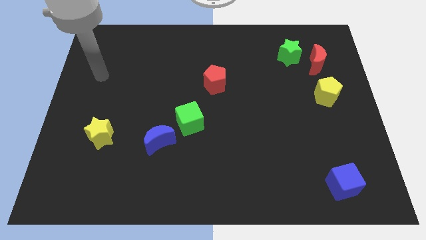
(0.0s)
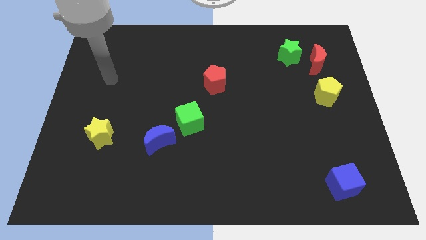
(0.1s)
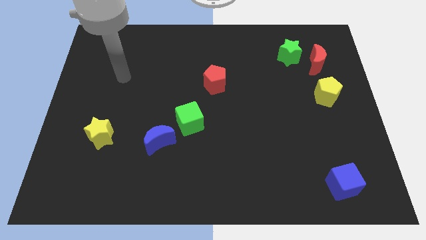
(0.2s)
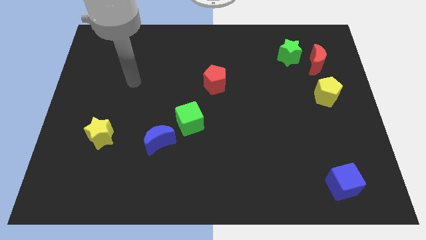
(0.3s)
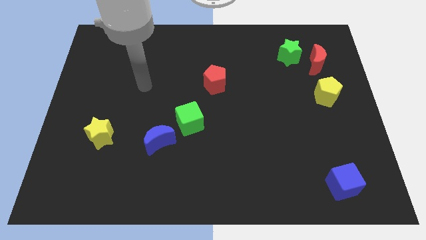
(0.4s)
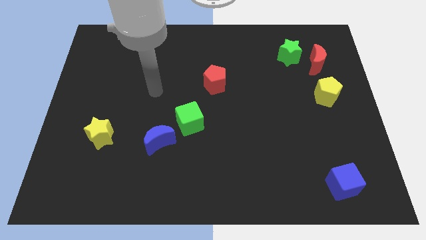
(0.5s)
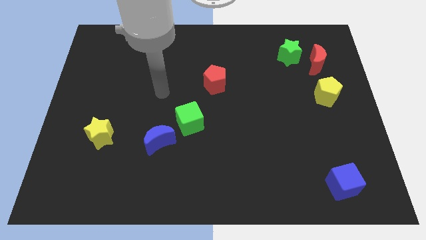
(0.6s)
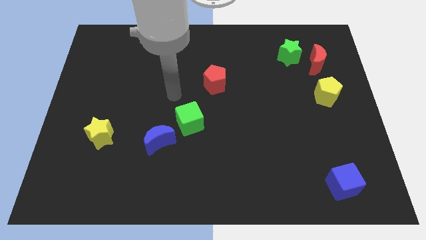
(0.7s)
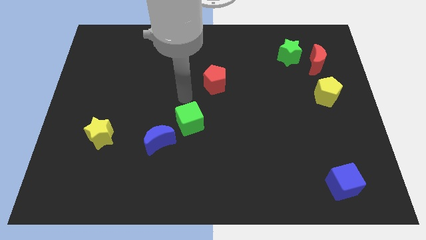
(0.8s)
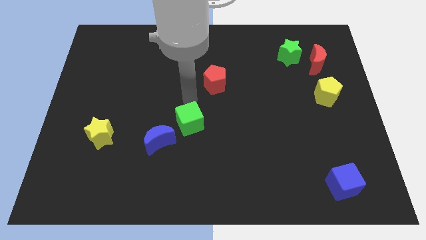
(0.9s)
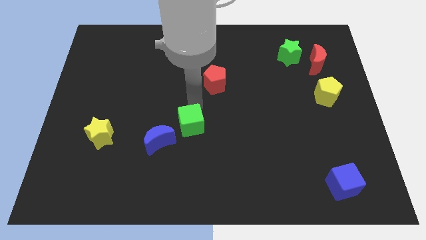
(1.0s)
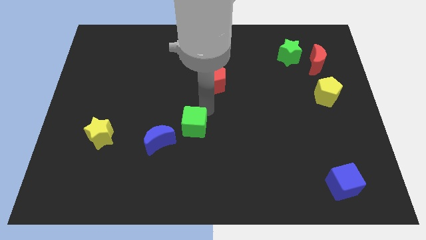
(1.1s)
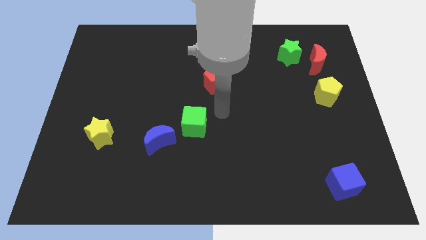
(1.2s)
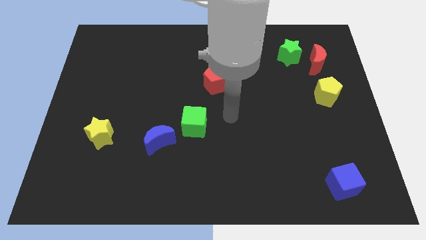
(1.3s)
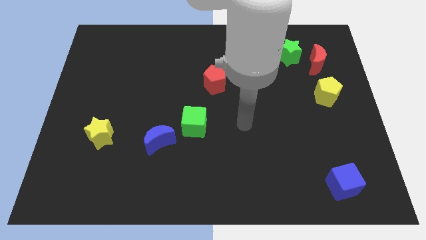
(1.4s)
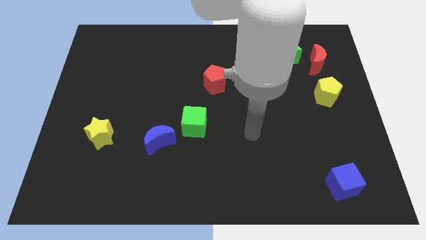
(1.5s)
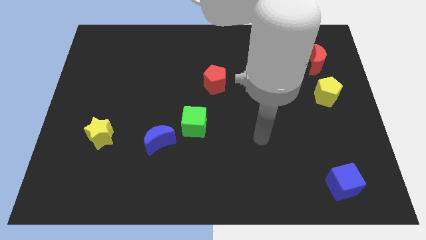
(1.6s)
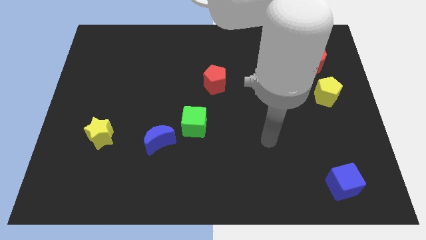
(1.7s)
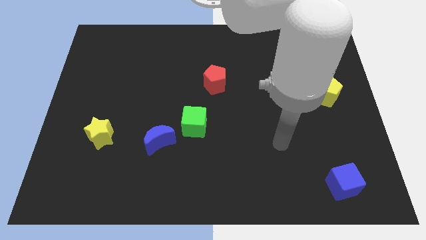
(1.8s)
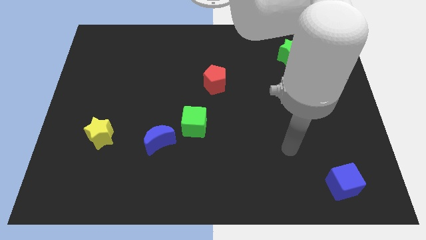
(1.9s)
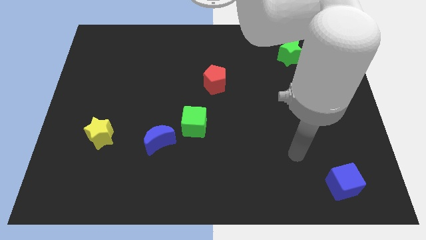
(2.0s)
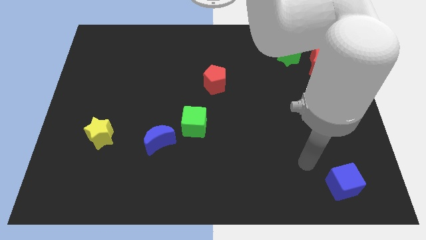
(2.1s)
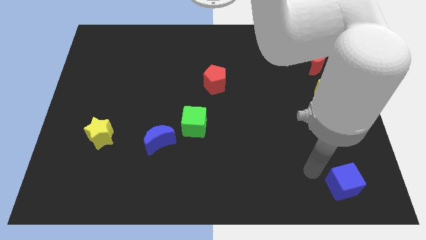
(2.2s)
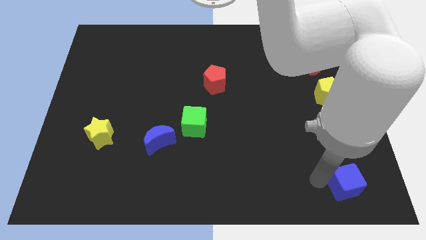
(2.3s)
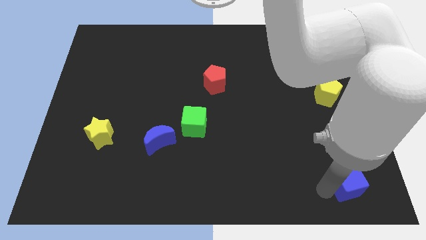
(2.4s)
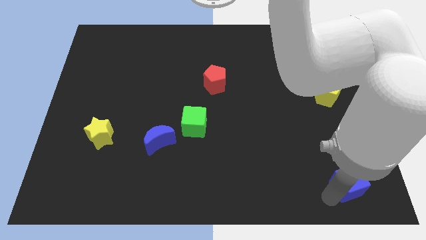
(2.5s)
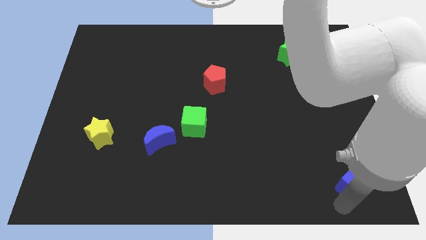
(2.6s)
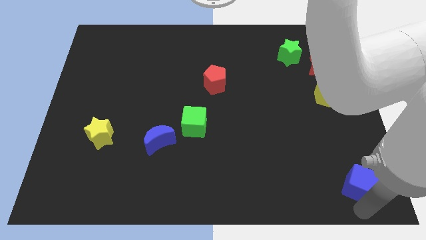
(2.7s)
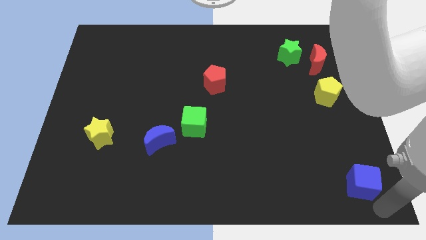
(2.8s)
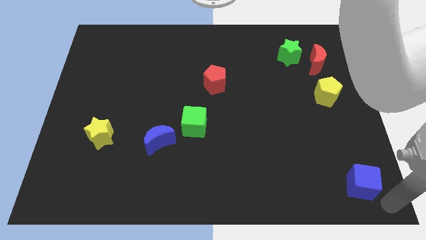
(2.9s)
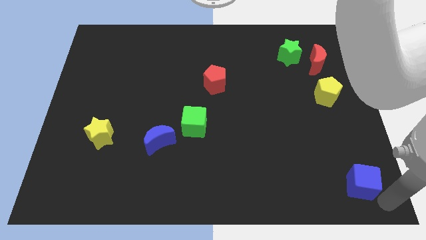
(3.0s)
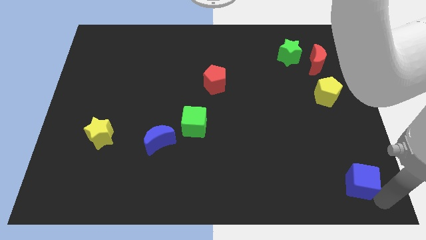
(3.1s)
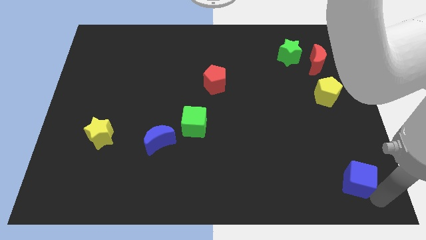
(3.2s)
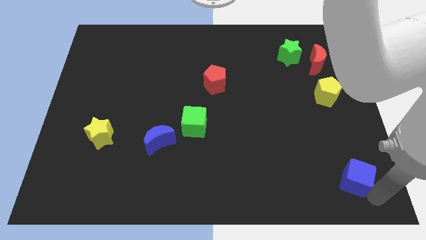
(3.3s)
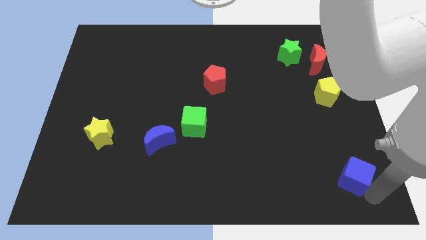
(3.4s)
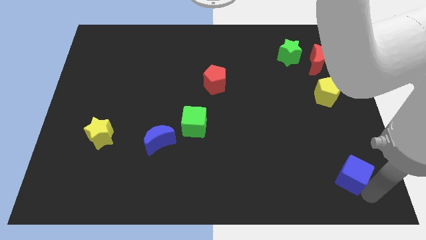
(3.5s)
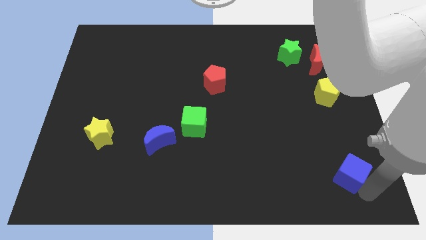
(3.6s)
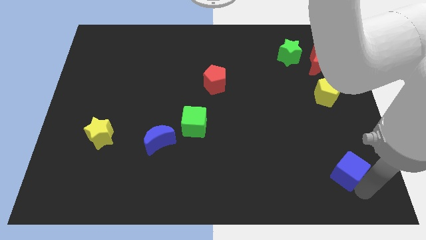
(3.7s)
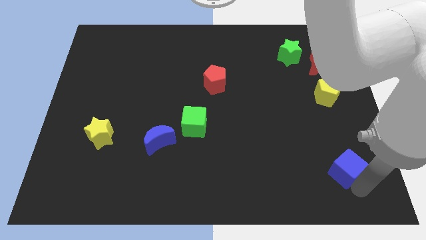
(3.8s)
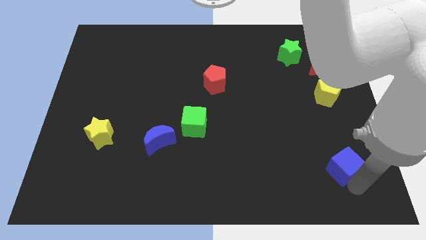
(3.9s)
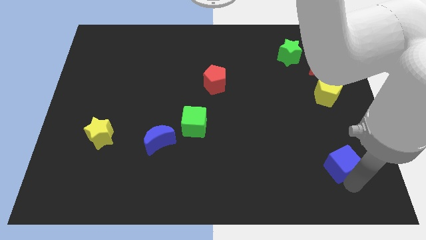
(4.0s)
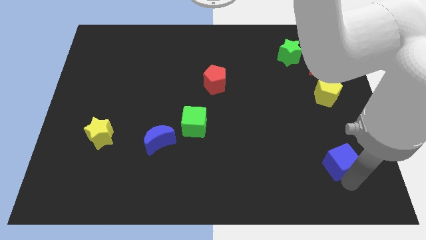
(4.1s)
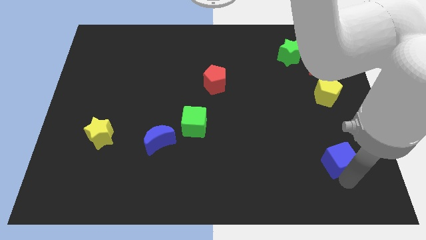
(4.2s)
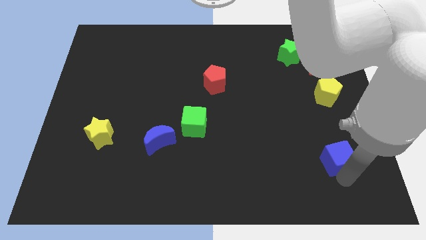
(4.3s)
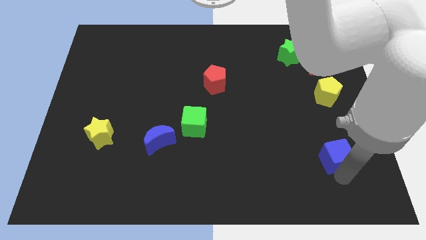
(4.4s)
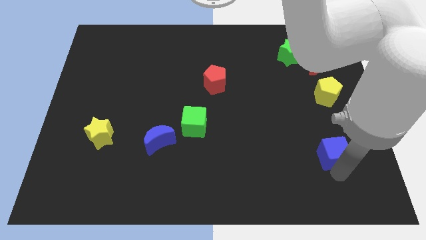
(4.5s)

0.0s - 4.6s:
slightly slide the blue cube upwards

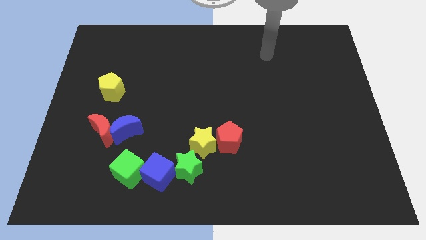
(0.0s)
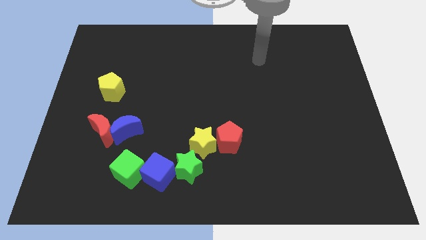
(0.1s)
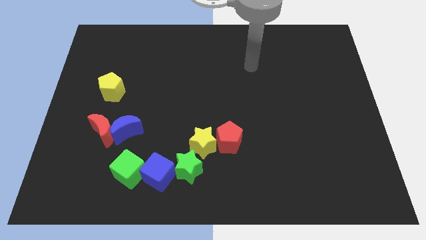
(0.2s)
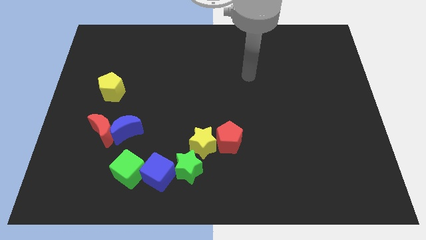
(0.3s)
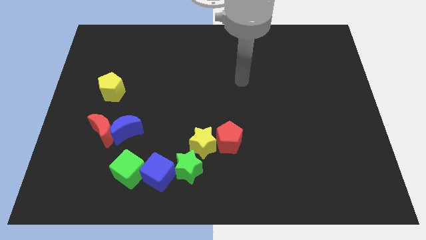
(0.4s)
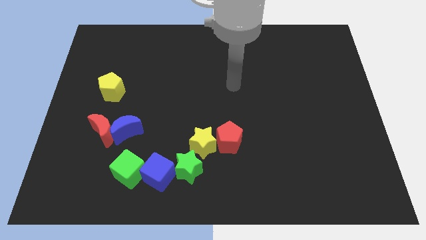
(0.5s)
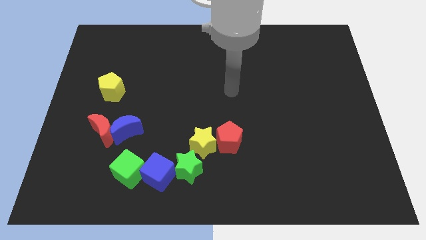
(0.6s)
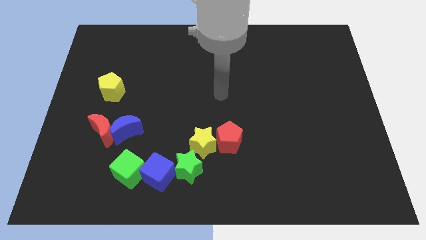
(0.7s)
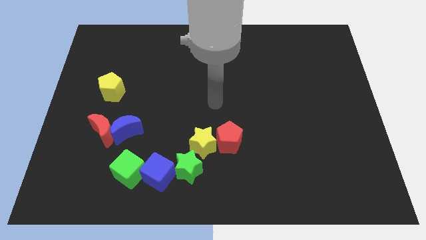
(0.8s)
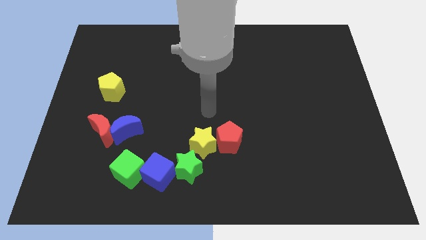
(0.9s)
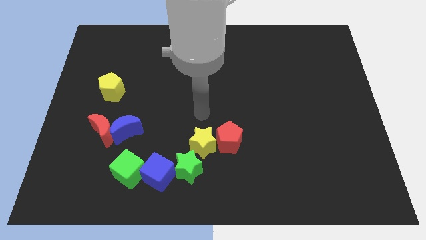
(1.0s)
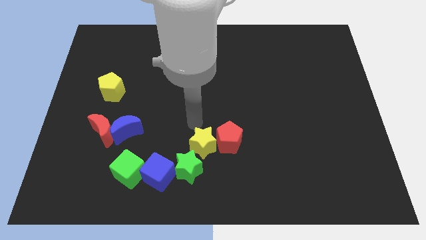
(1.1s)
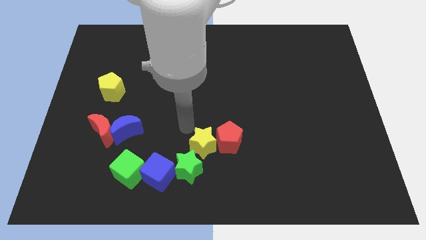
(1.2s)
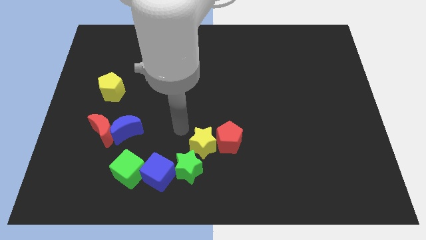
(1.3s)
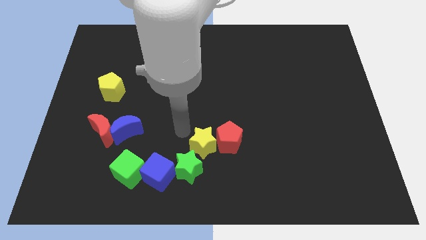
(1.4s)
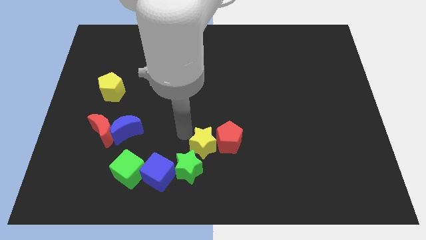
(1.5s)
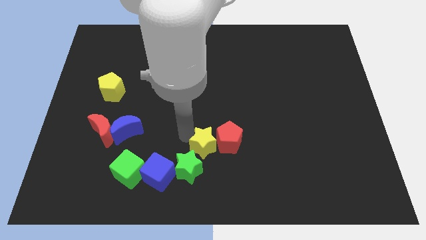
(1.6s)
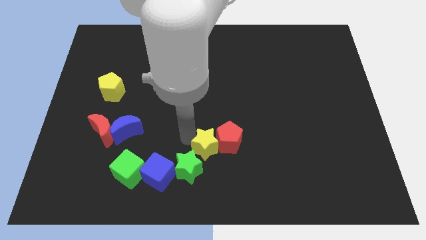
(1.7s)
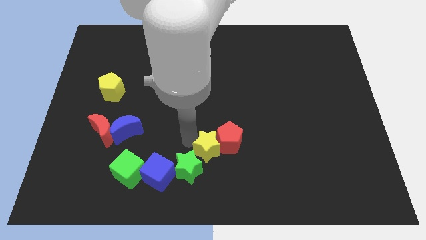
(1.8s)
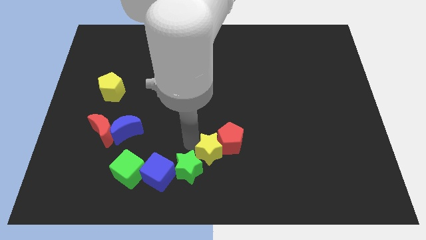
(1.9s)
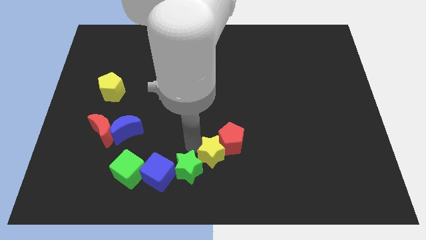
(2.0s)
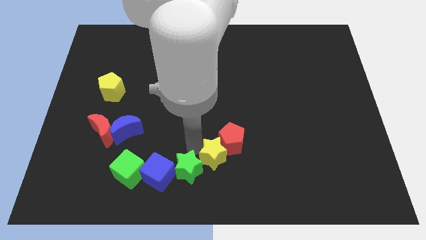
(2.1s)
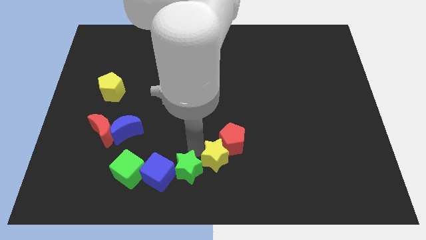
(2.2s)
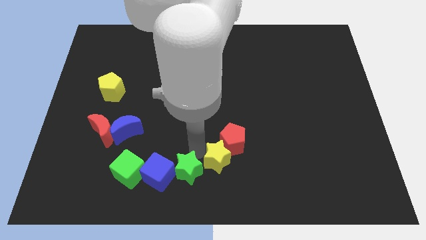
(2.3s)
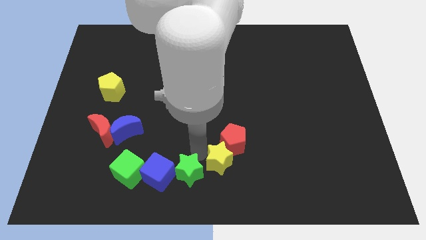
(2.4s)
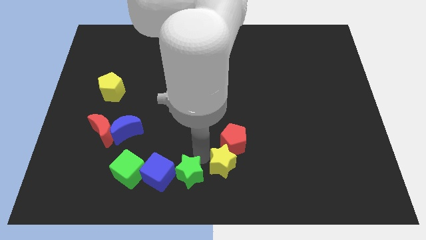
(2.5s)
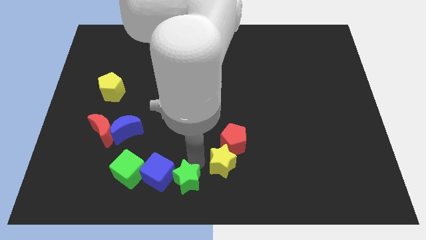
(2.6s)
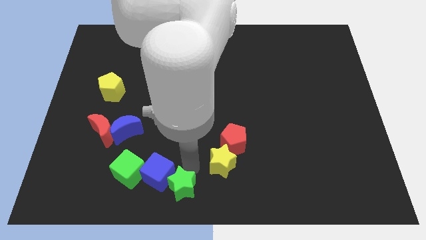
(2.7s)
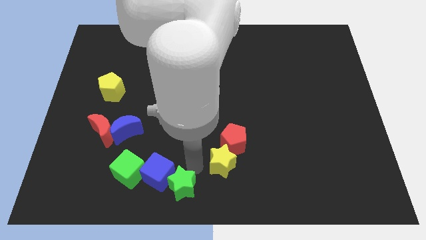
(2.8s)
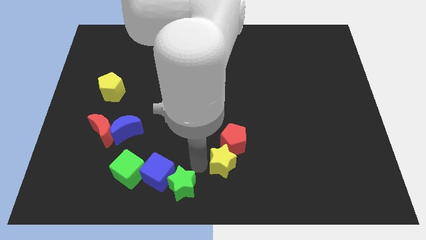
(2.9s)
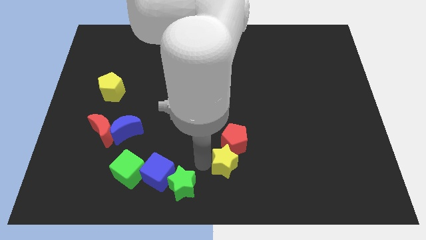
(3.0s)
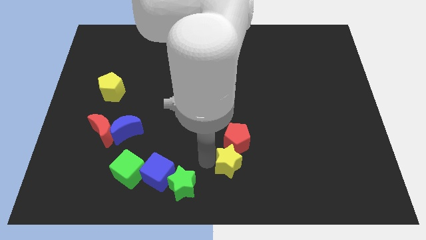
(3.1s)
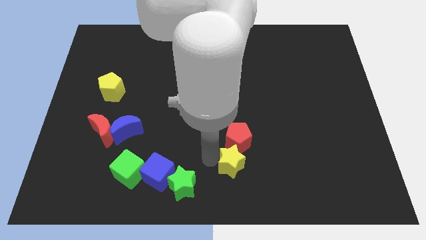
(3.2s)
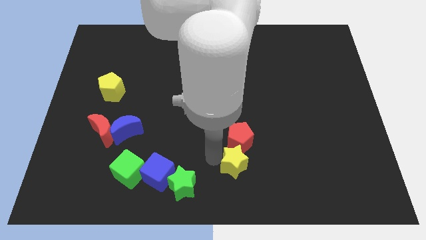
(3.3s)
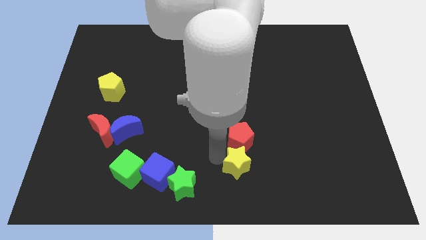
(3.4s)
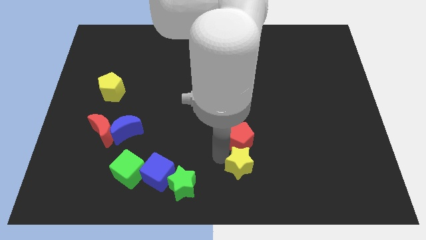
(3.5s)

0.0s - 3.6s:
push the yellow star right a little

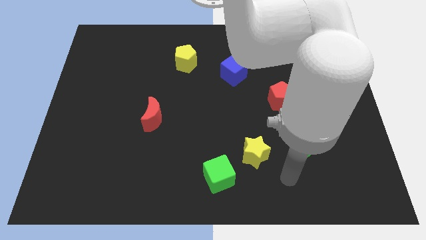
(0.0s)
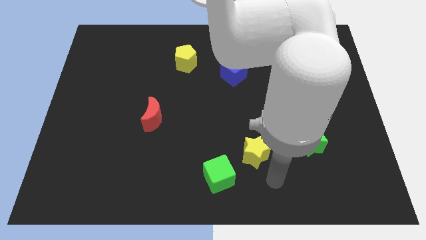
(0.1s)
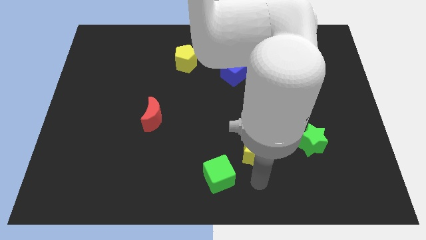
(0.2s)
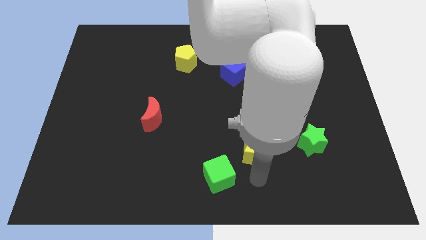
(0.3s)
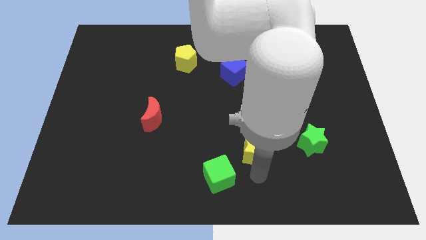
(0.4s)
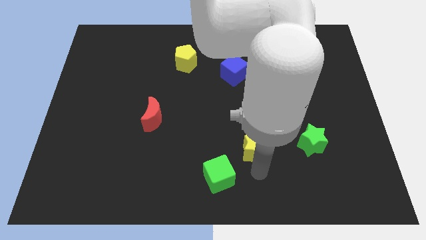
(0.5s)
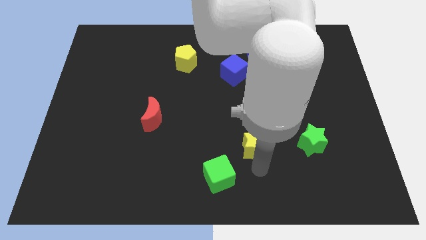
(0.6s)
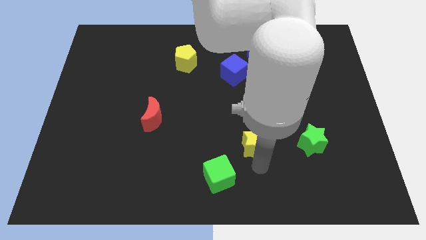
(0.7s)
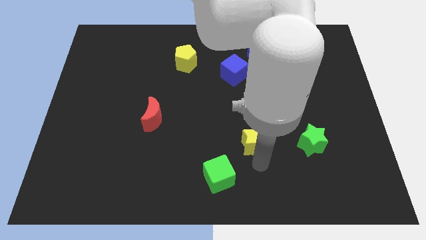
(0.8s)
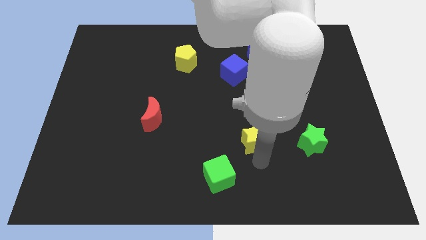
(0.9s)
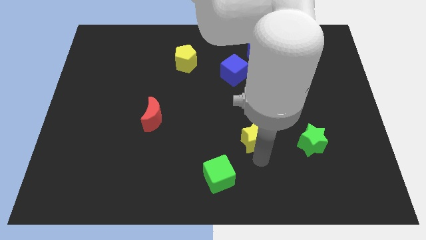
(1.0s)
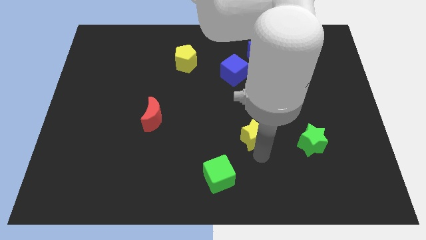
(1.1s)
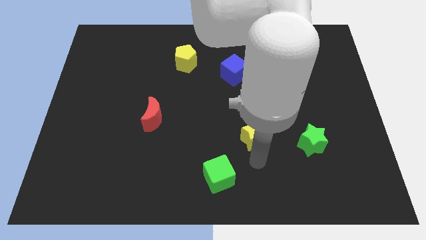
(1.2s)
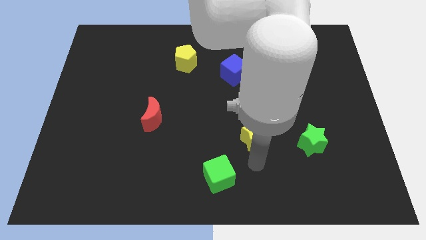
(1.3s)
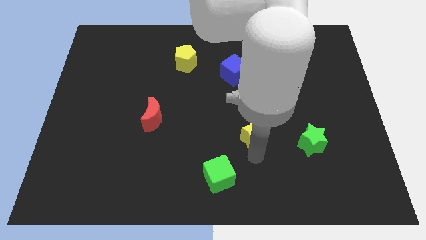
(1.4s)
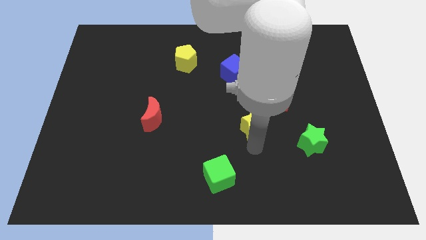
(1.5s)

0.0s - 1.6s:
push the yellow star upwards slightly
